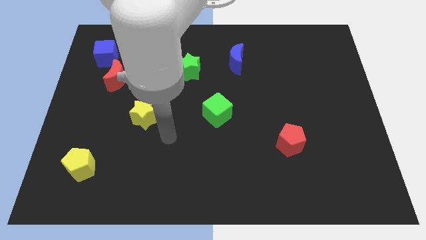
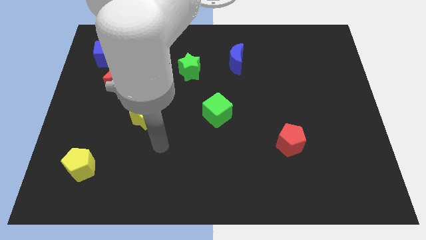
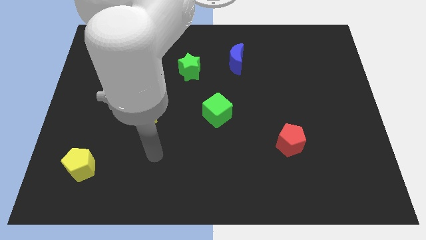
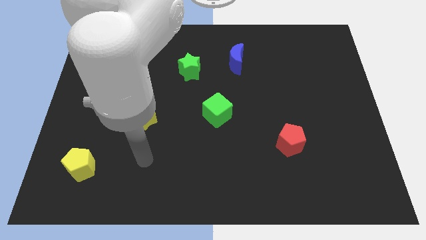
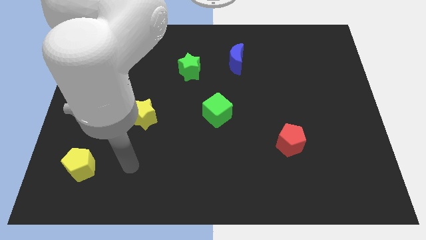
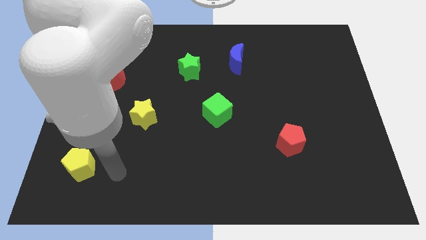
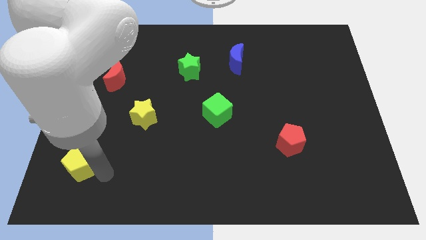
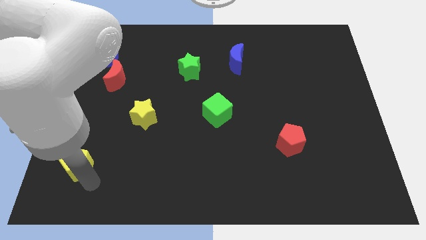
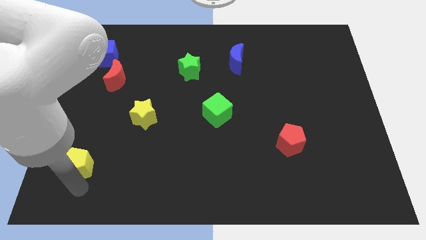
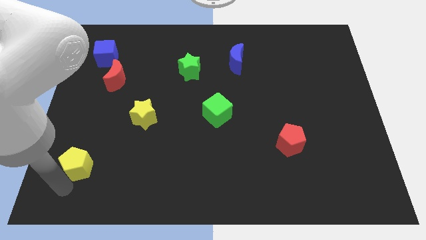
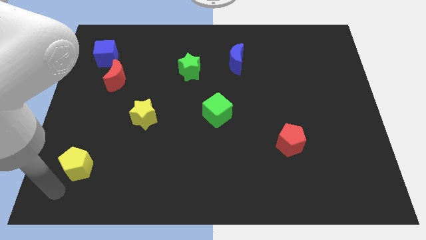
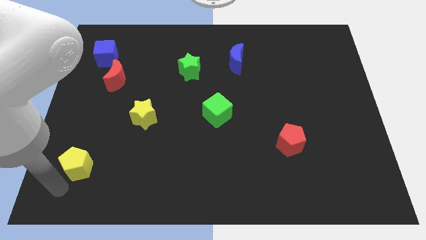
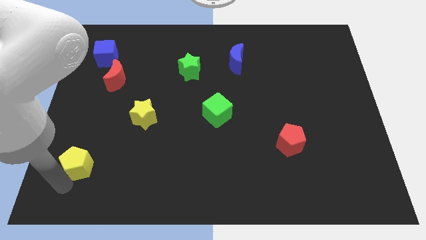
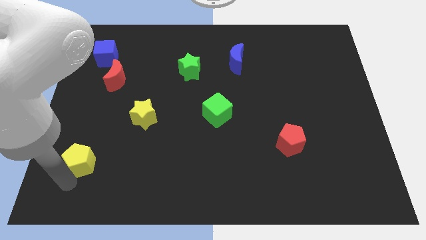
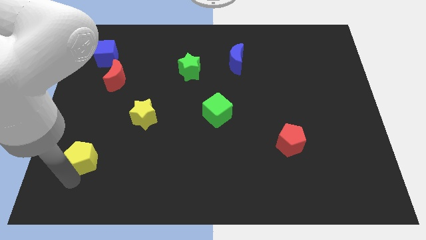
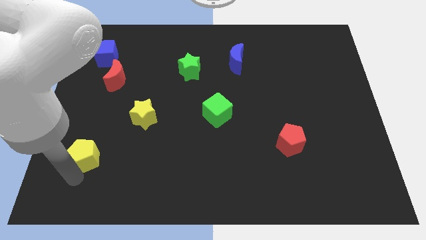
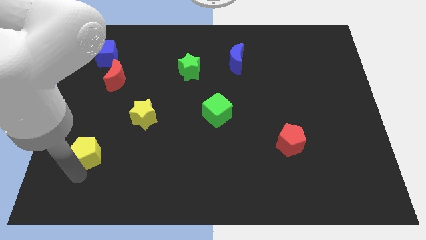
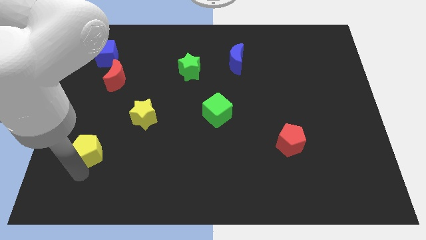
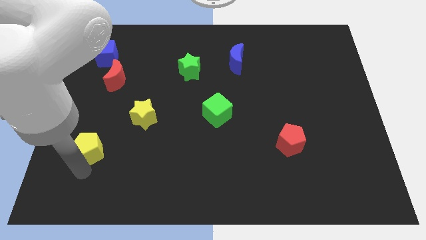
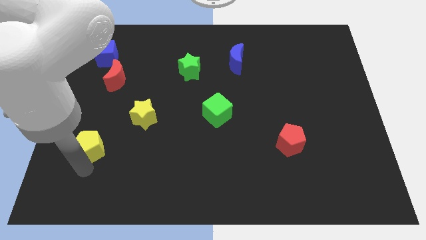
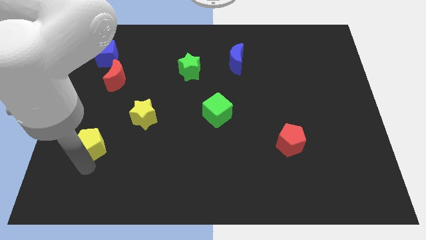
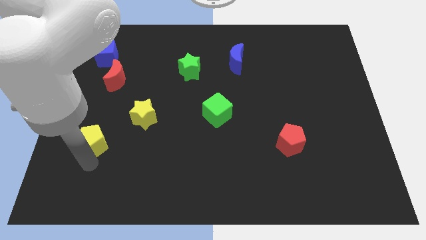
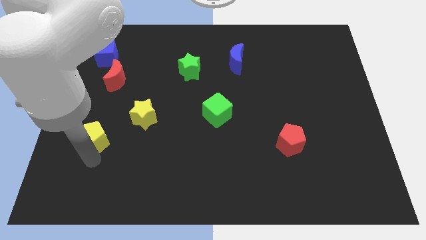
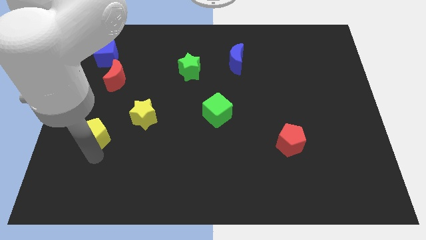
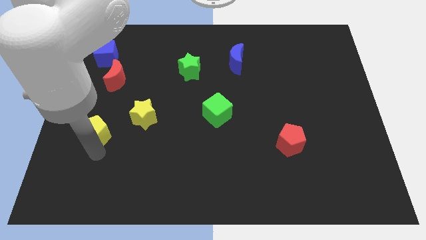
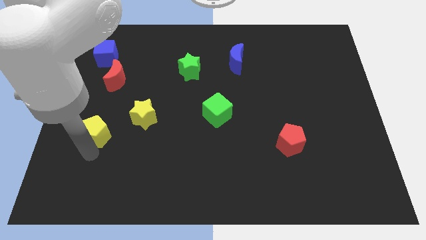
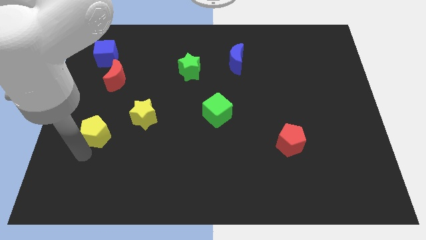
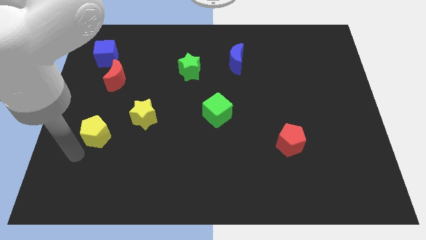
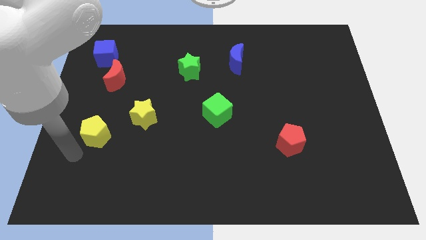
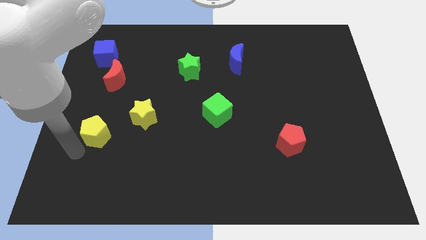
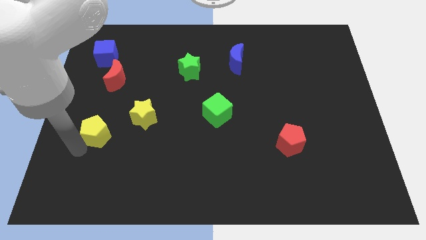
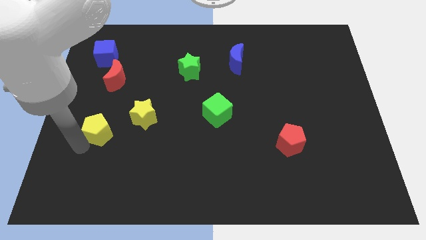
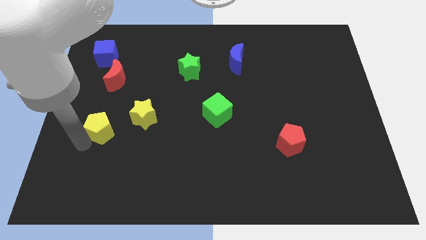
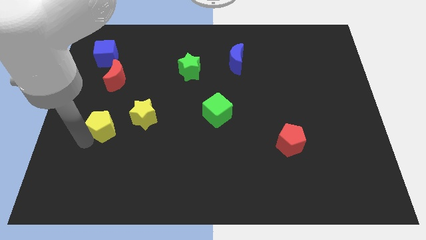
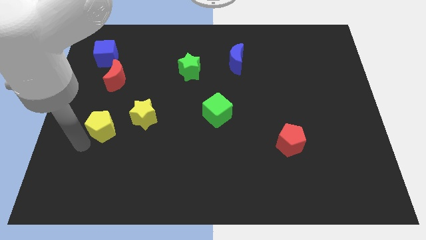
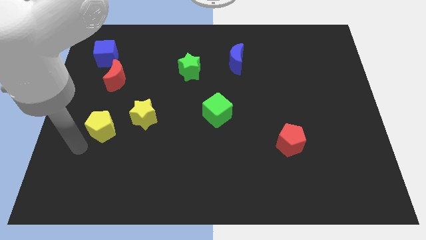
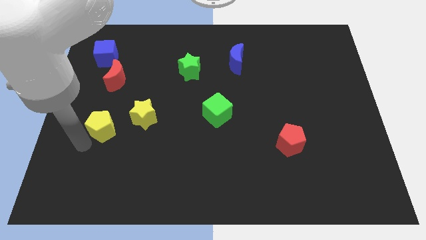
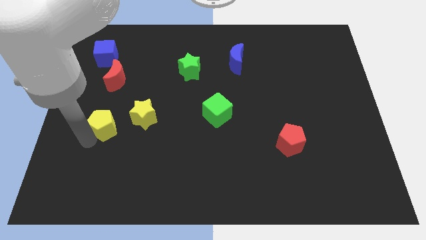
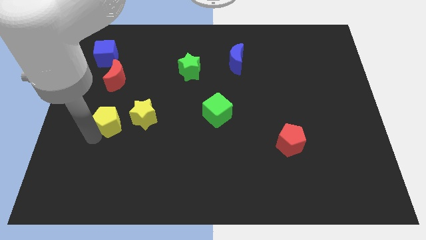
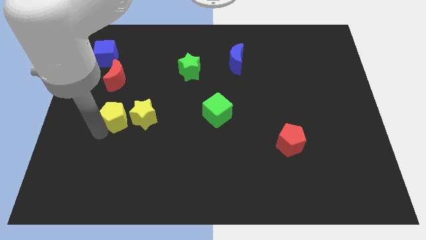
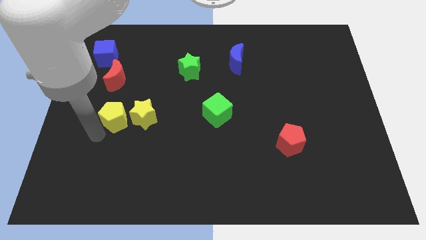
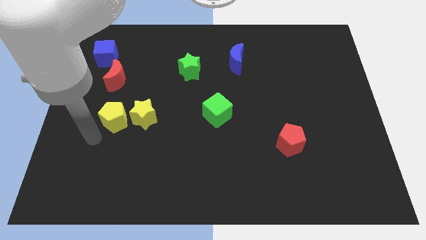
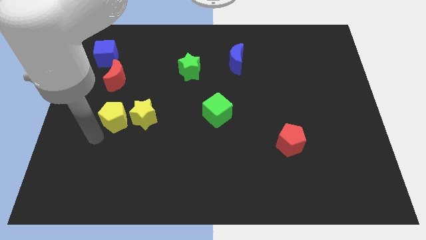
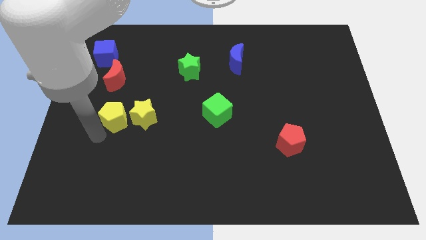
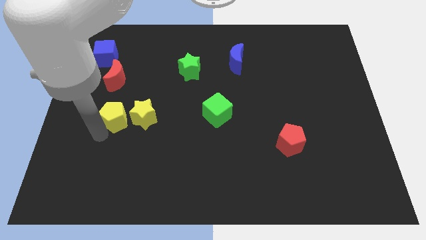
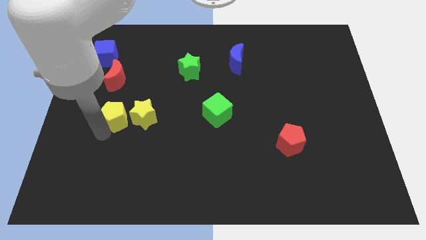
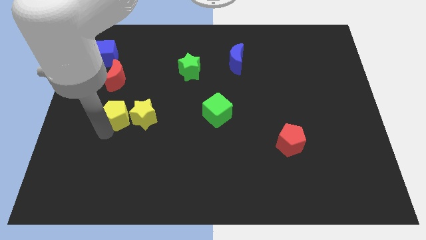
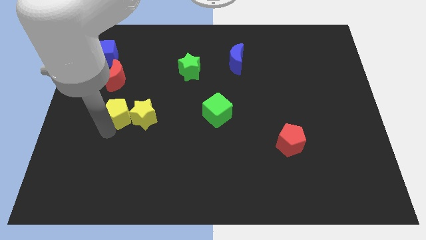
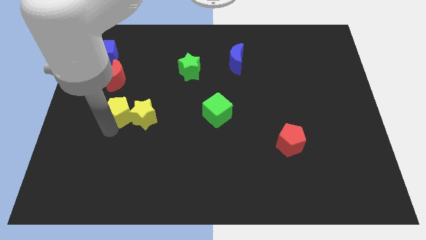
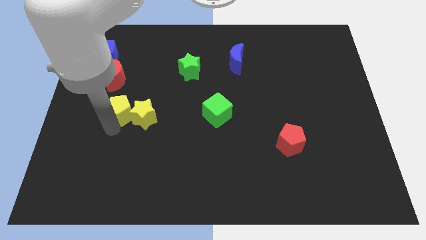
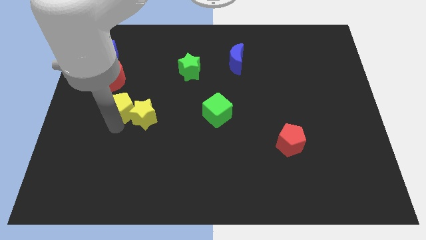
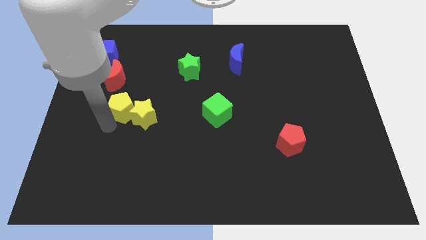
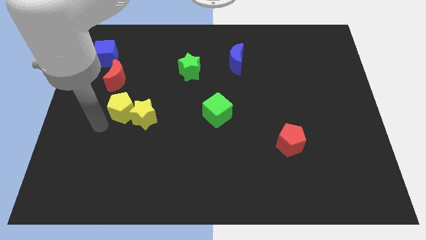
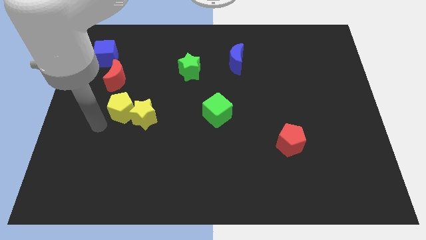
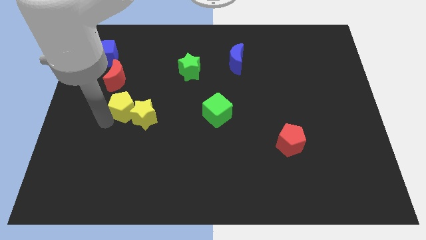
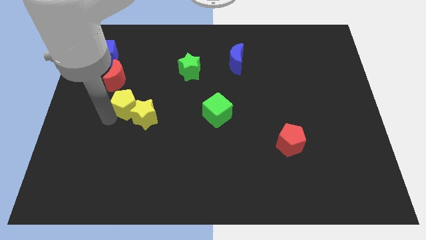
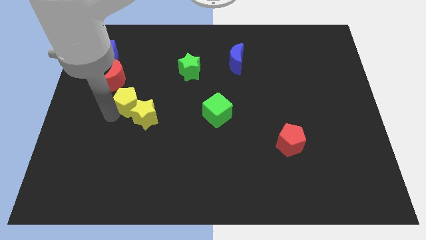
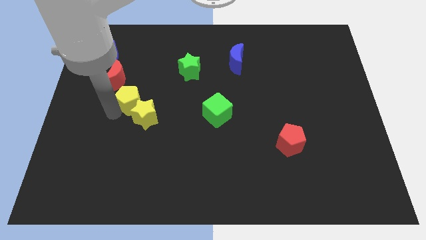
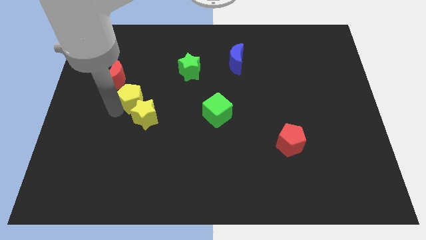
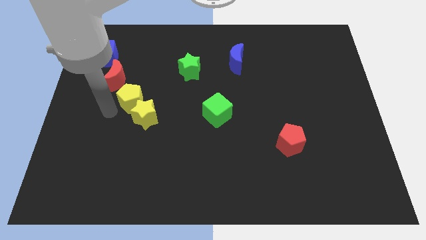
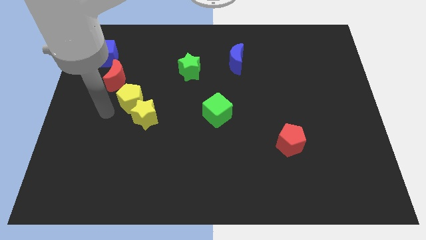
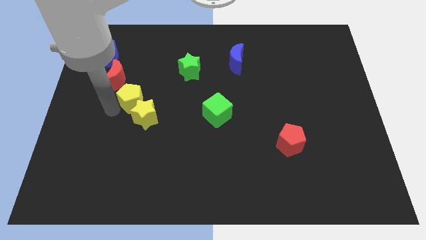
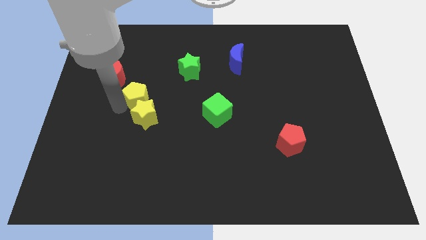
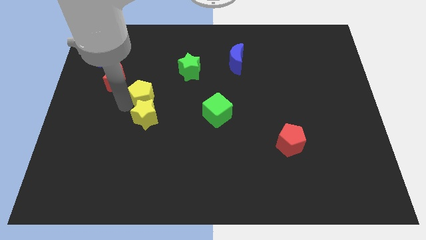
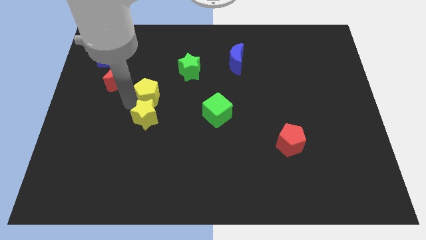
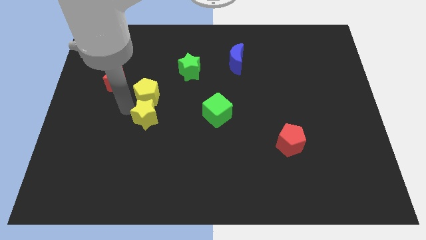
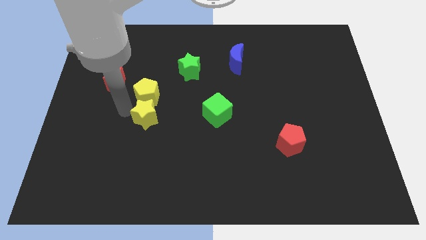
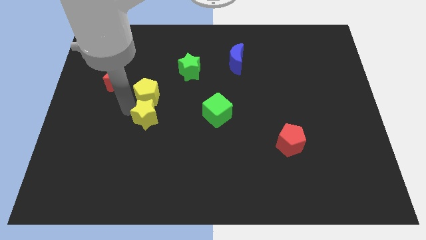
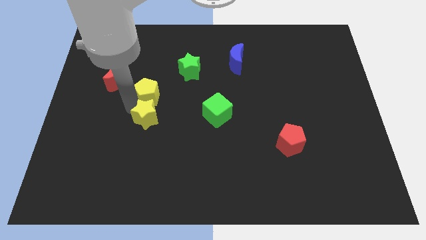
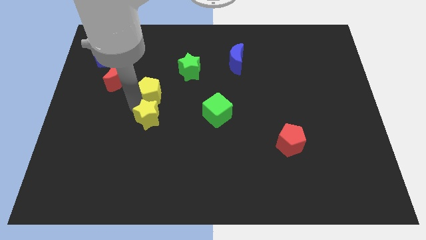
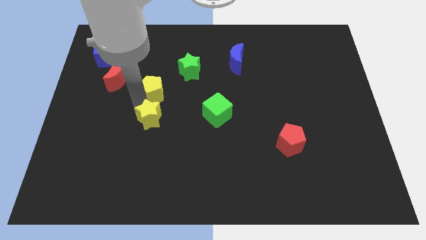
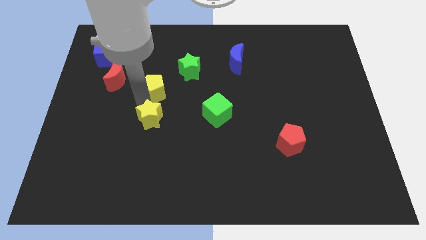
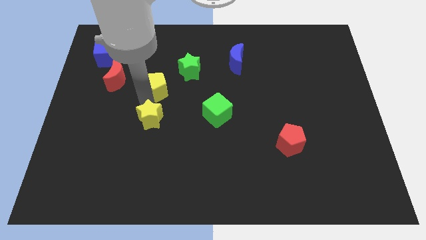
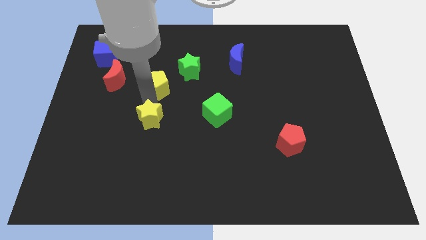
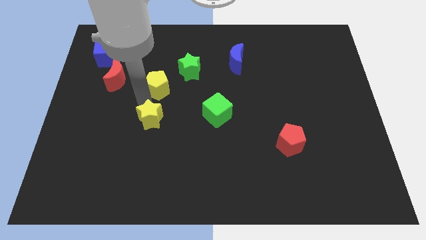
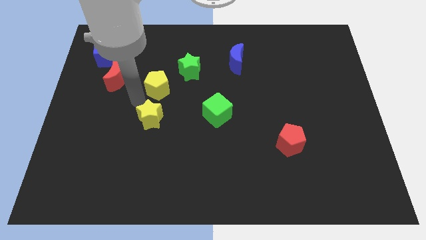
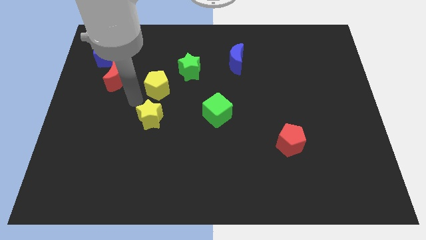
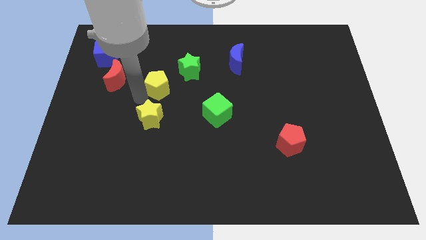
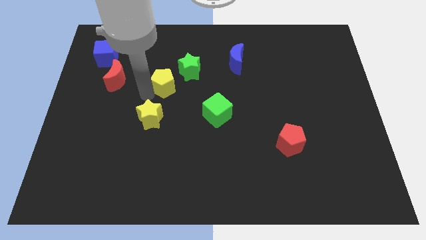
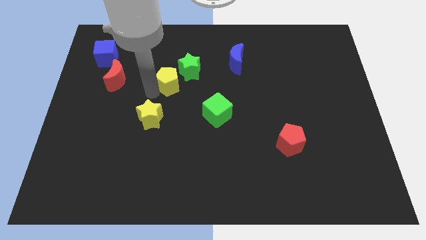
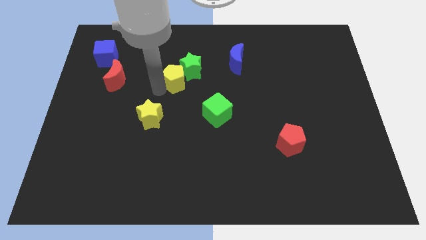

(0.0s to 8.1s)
push the yellow pentagon to the green star
